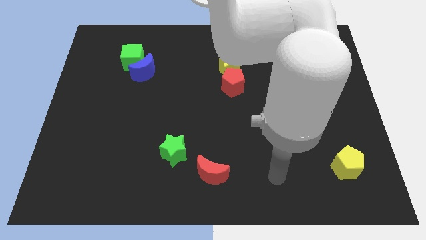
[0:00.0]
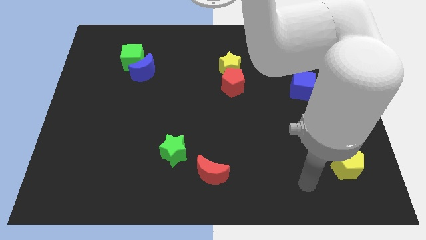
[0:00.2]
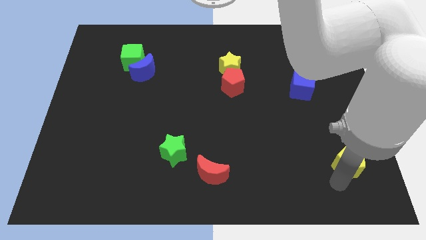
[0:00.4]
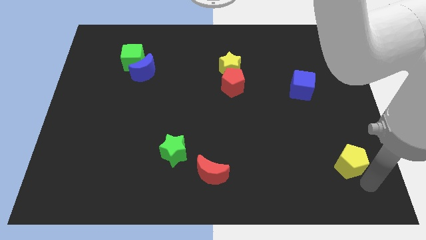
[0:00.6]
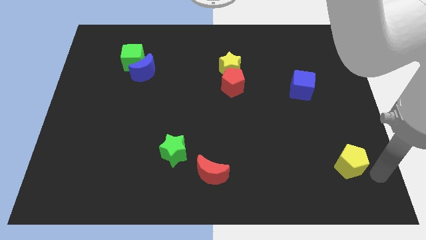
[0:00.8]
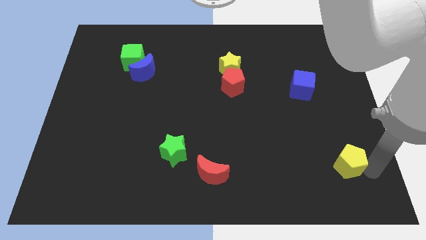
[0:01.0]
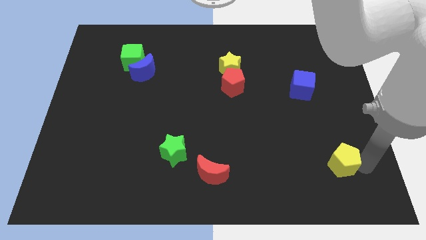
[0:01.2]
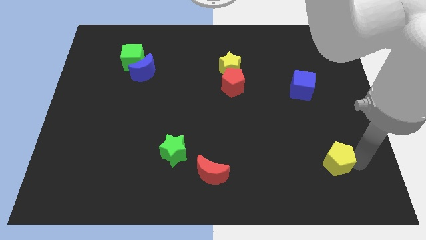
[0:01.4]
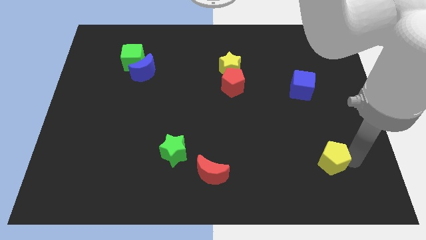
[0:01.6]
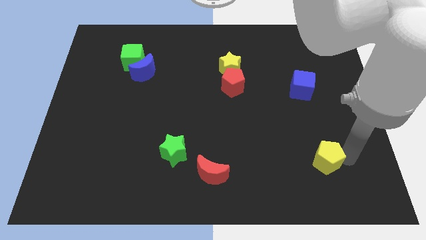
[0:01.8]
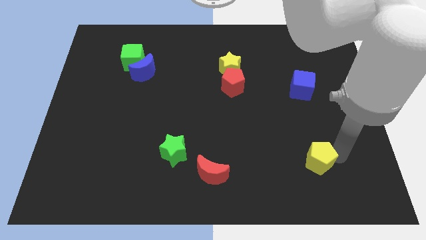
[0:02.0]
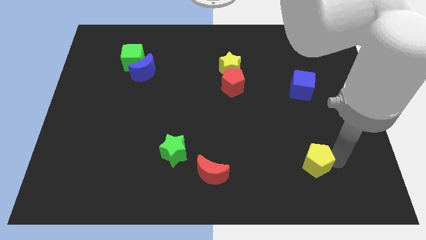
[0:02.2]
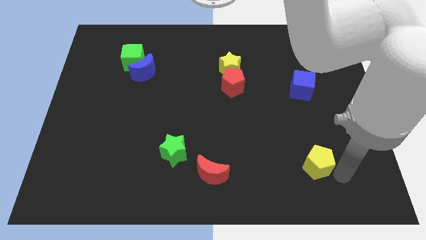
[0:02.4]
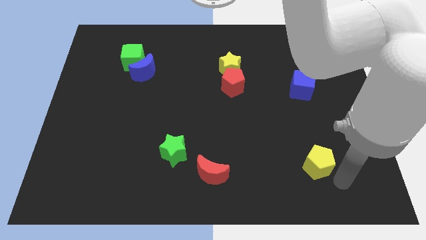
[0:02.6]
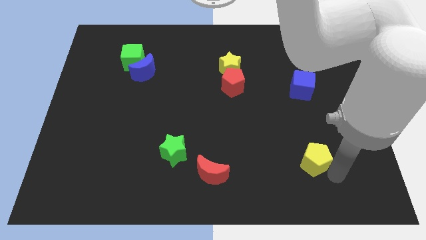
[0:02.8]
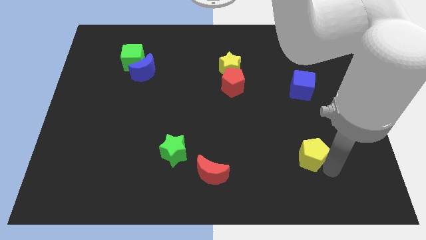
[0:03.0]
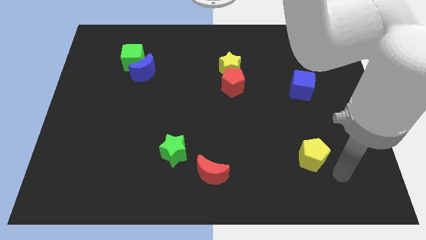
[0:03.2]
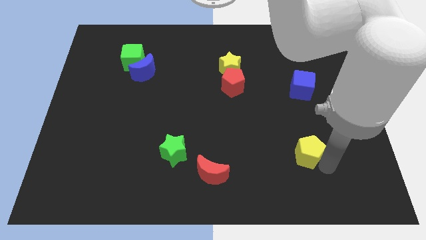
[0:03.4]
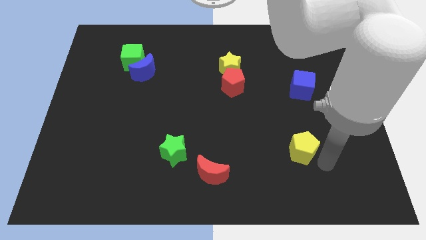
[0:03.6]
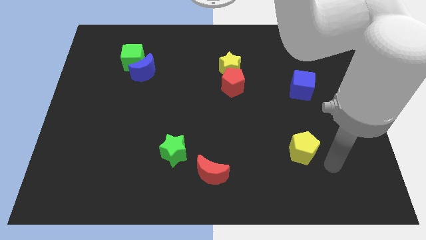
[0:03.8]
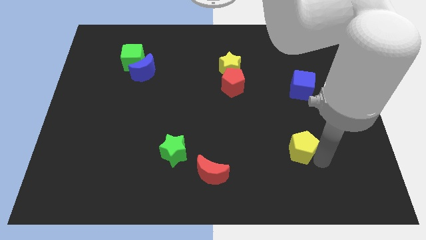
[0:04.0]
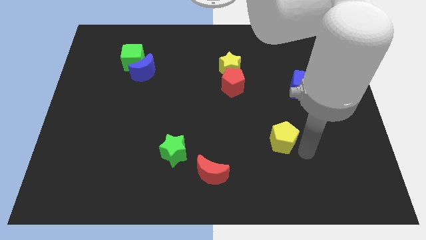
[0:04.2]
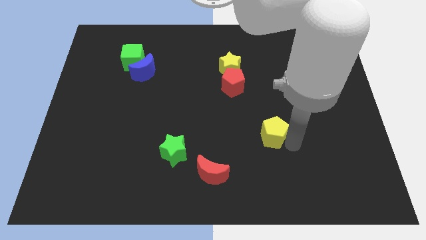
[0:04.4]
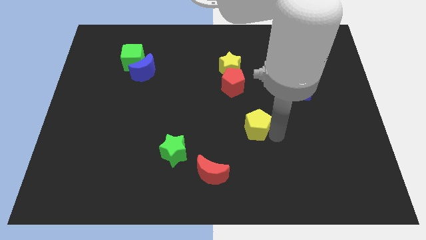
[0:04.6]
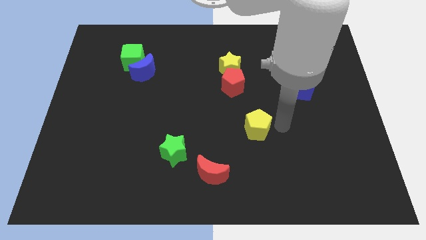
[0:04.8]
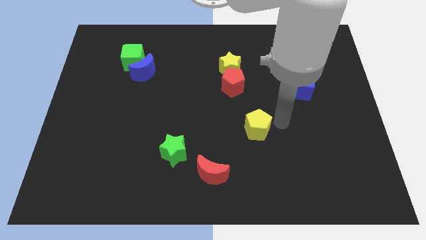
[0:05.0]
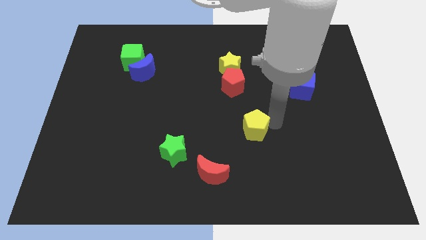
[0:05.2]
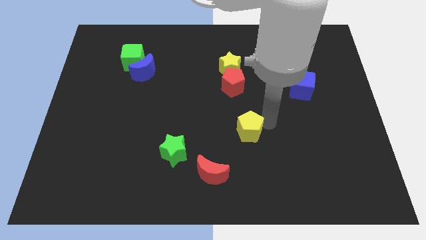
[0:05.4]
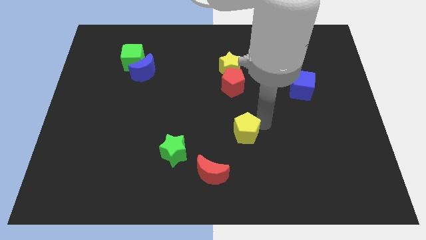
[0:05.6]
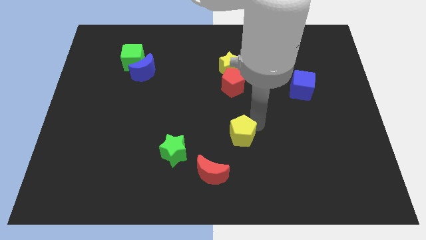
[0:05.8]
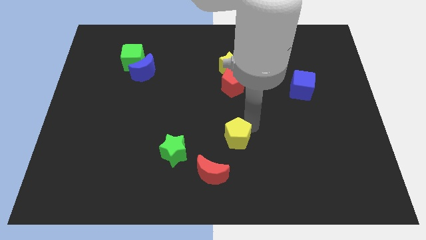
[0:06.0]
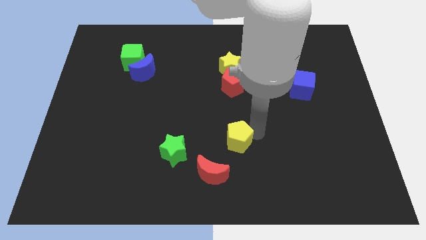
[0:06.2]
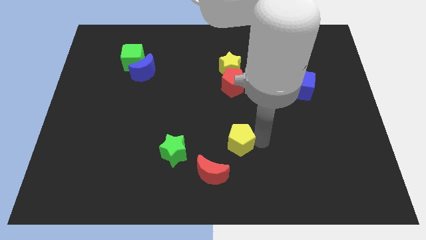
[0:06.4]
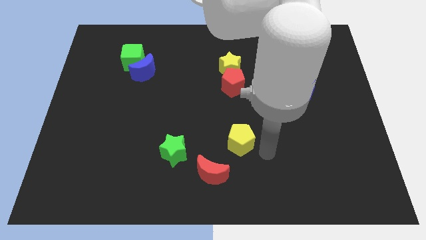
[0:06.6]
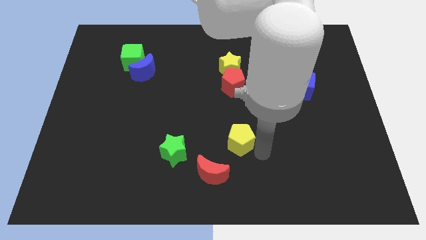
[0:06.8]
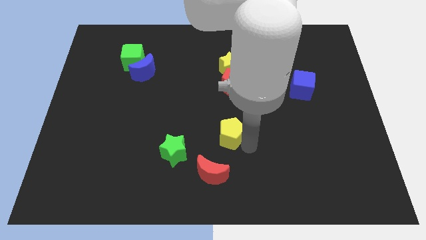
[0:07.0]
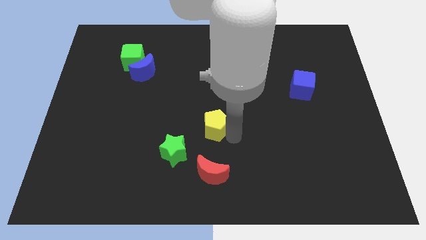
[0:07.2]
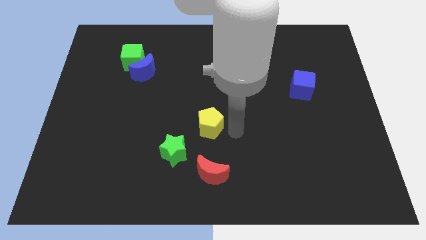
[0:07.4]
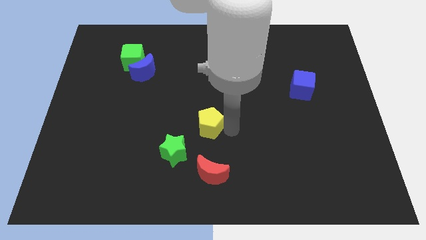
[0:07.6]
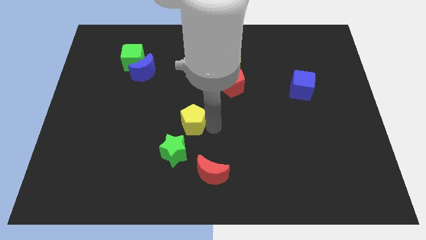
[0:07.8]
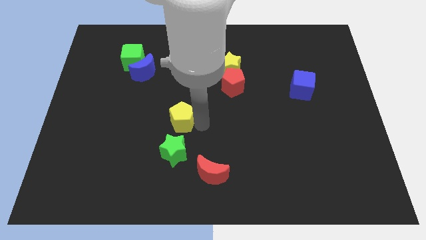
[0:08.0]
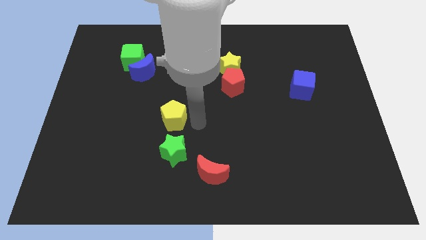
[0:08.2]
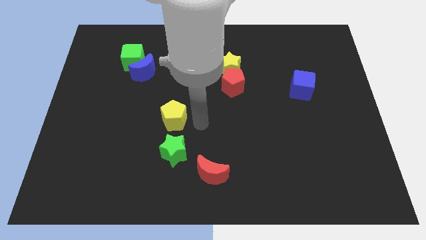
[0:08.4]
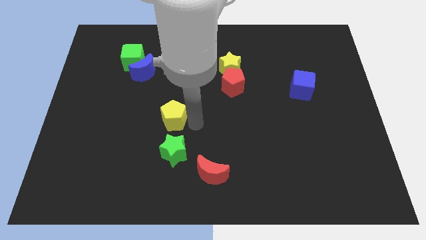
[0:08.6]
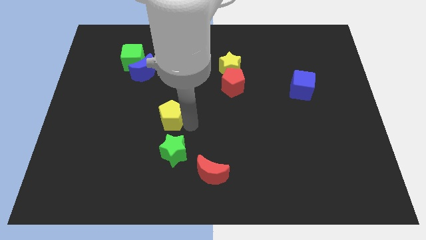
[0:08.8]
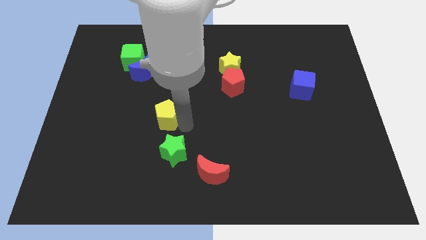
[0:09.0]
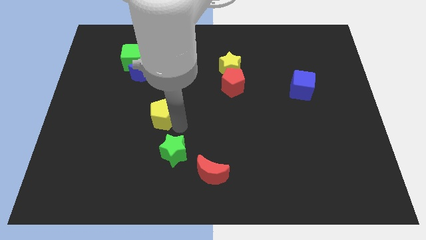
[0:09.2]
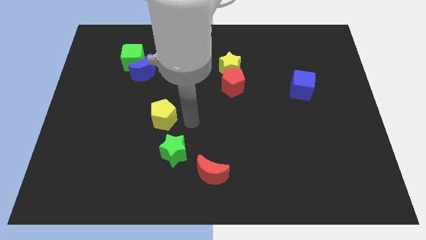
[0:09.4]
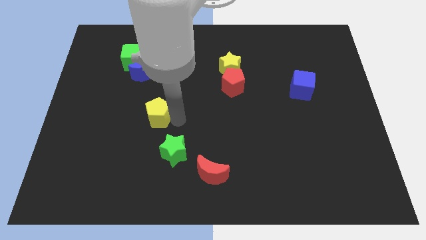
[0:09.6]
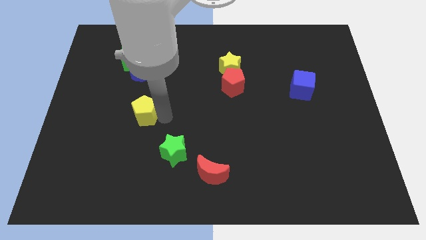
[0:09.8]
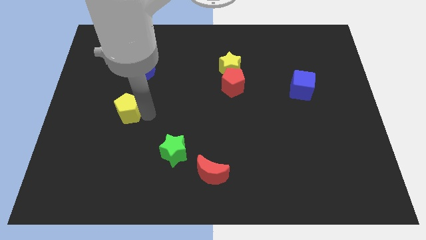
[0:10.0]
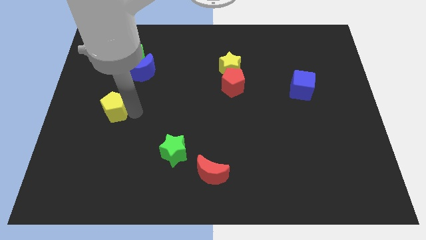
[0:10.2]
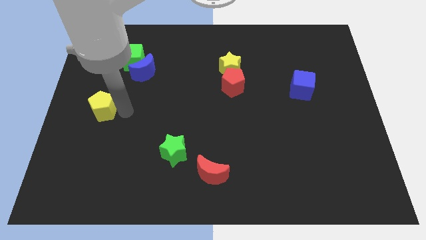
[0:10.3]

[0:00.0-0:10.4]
put the yellow pentagon to the center left

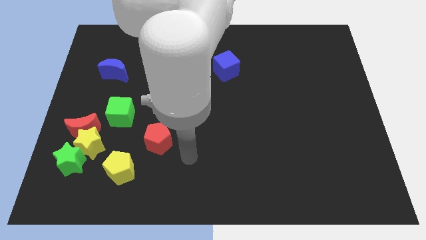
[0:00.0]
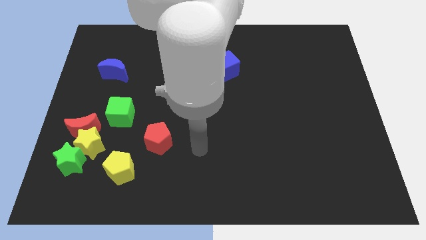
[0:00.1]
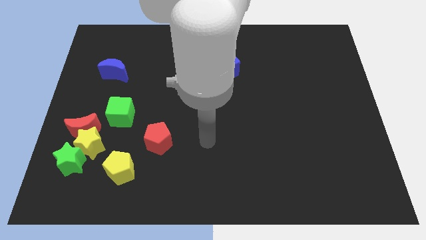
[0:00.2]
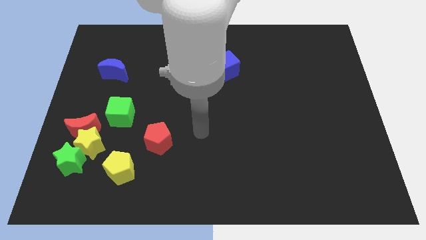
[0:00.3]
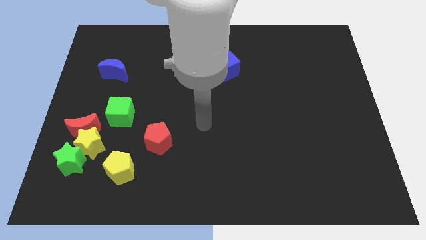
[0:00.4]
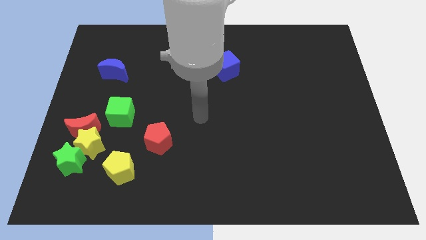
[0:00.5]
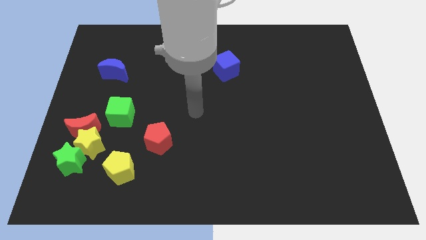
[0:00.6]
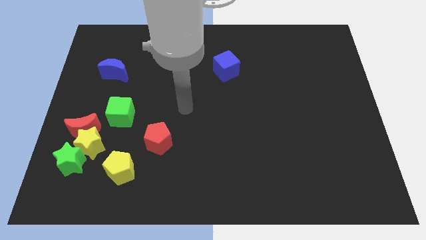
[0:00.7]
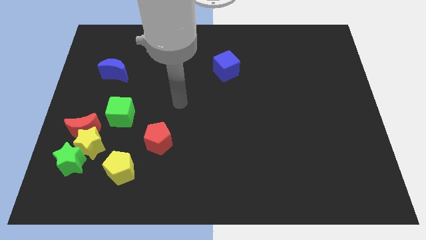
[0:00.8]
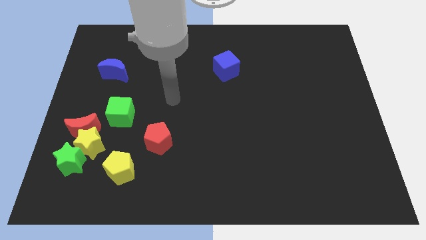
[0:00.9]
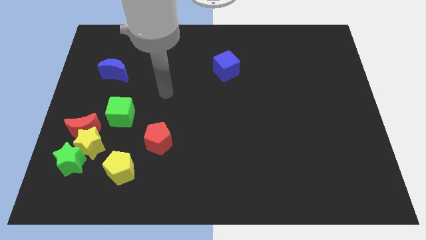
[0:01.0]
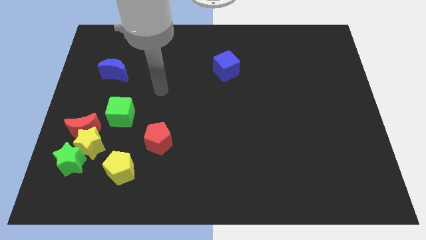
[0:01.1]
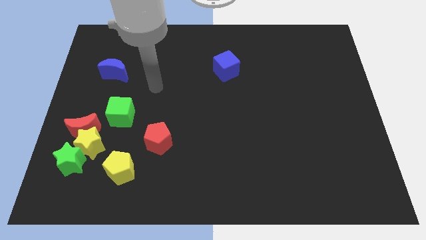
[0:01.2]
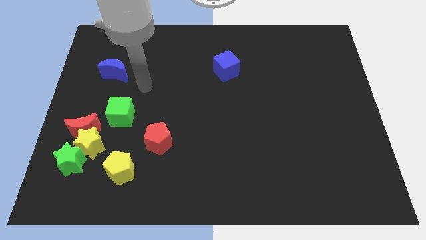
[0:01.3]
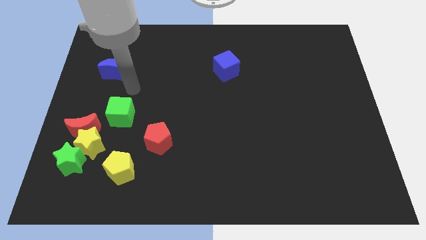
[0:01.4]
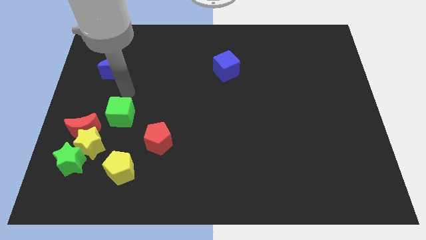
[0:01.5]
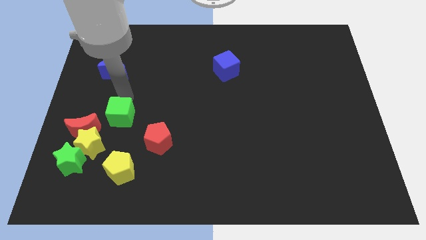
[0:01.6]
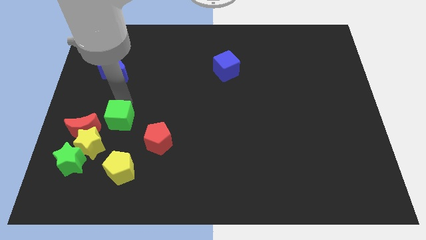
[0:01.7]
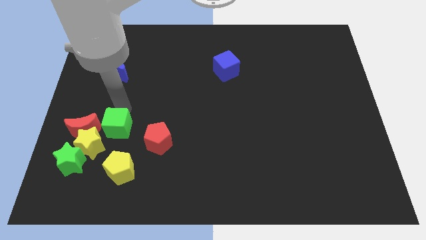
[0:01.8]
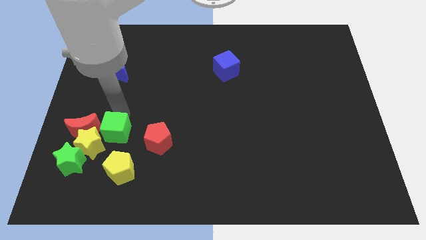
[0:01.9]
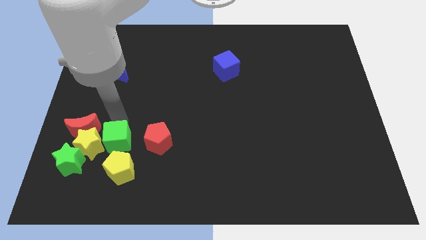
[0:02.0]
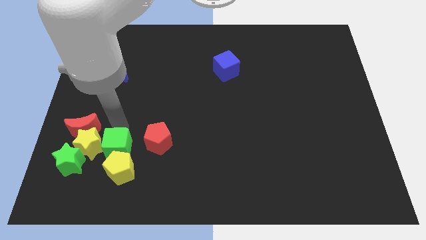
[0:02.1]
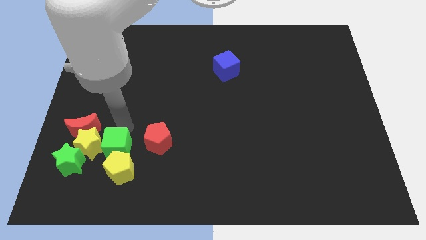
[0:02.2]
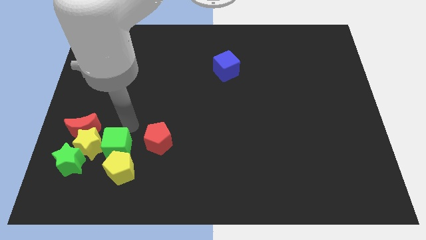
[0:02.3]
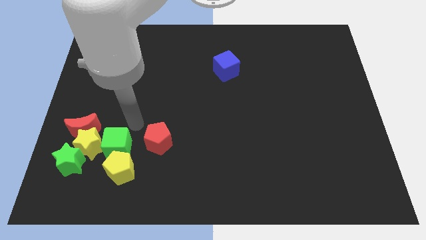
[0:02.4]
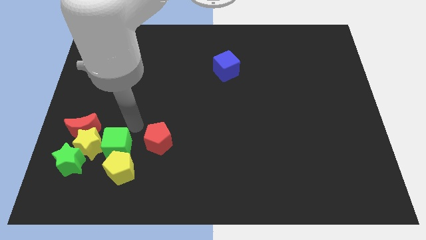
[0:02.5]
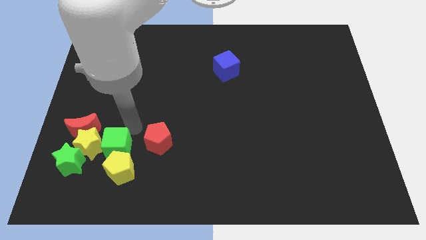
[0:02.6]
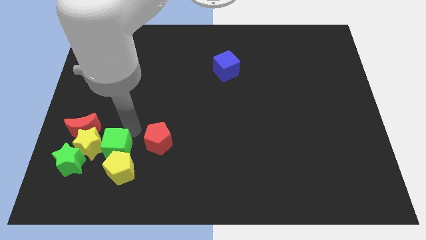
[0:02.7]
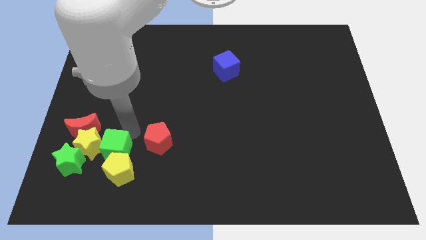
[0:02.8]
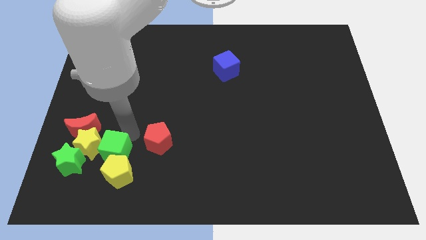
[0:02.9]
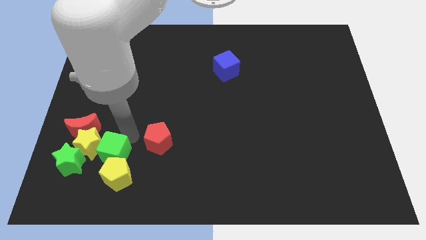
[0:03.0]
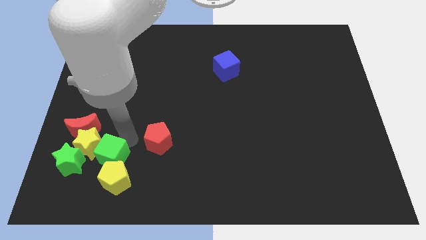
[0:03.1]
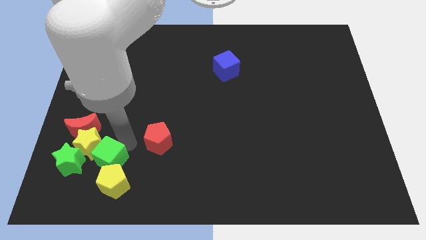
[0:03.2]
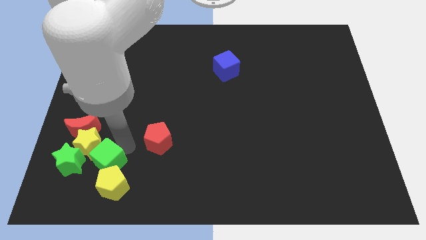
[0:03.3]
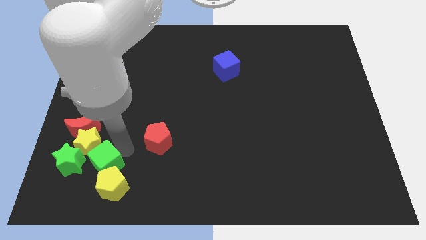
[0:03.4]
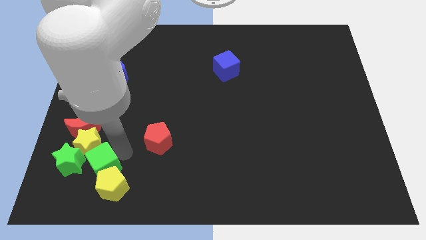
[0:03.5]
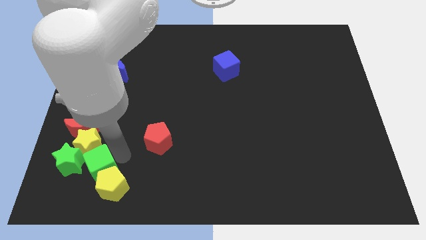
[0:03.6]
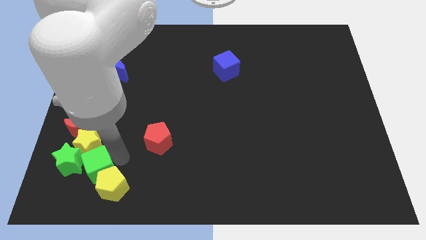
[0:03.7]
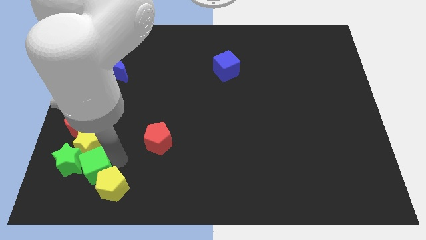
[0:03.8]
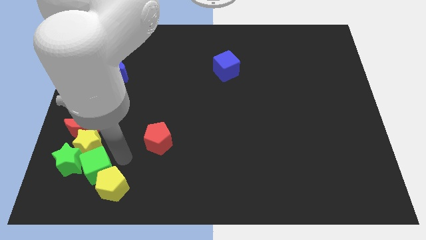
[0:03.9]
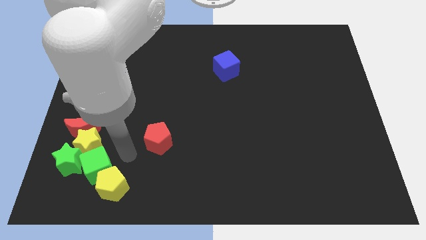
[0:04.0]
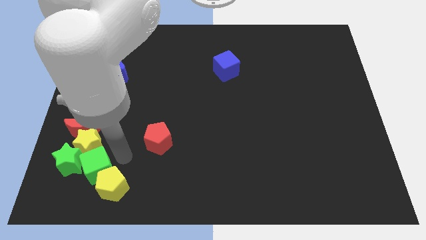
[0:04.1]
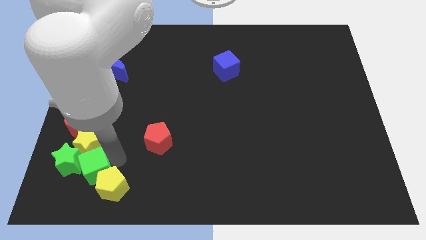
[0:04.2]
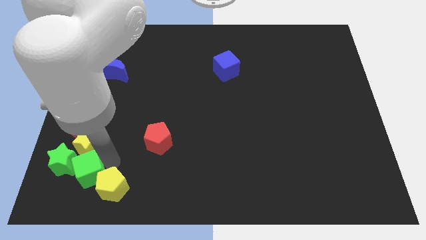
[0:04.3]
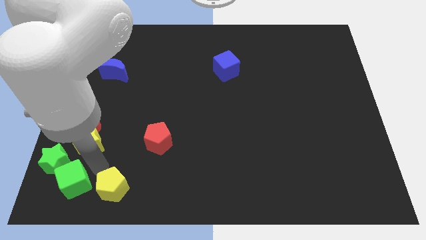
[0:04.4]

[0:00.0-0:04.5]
slide the green cube to the bottom left of the board
